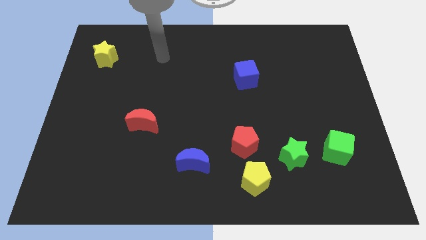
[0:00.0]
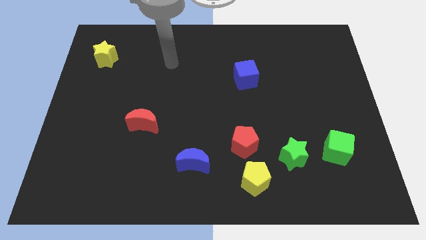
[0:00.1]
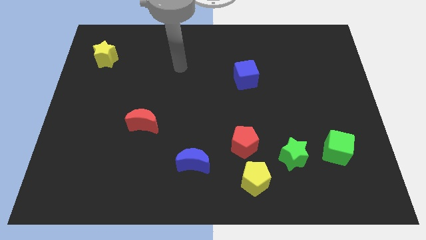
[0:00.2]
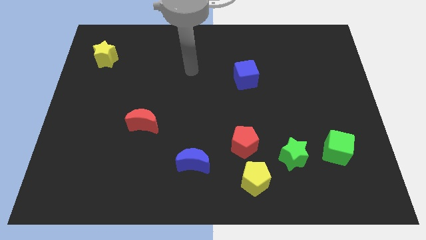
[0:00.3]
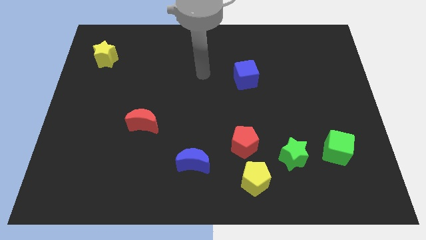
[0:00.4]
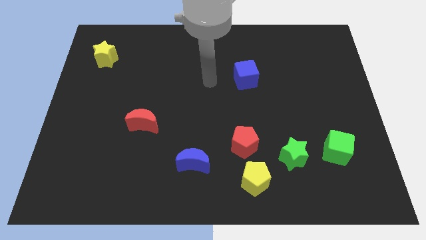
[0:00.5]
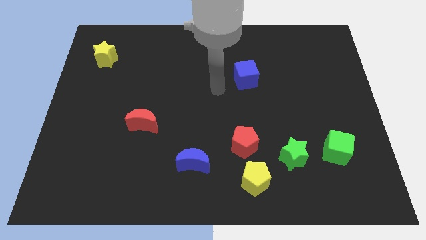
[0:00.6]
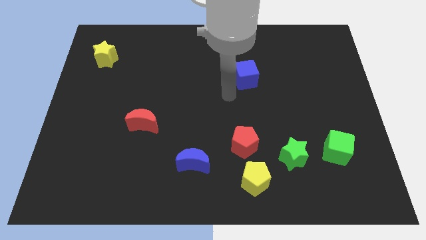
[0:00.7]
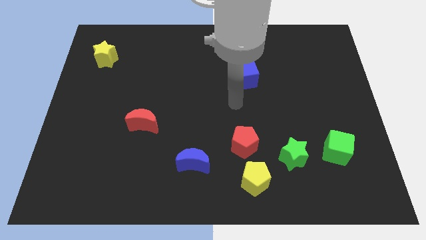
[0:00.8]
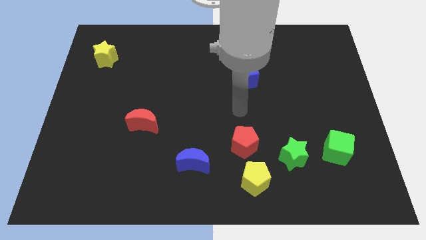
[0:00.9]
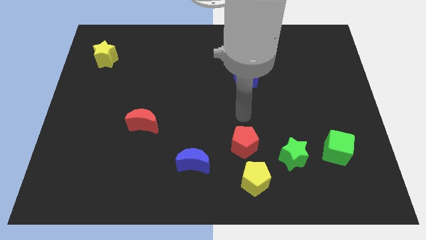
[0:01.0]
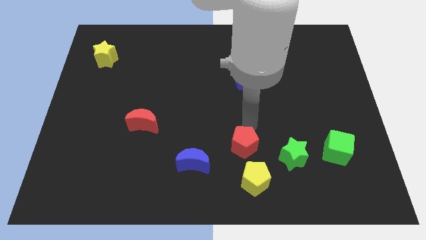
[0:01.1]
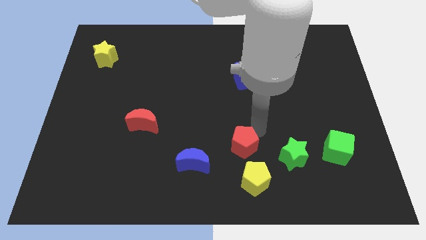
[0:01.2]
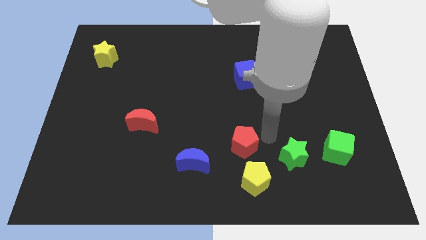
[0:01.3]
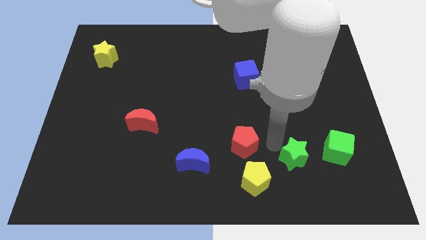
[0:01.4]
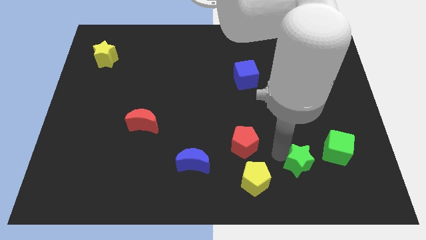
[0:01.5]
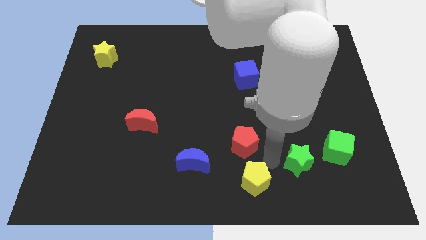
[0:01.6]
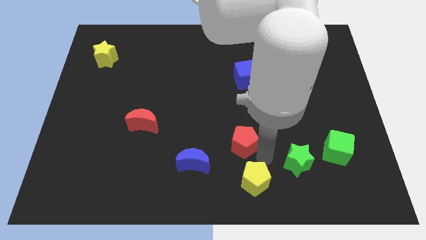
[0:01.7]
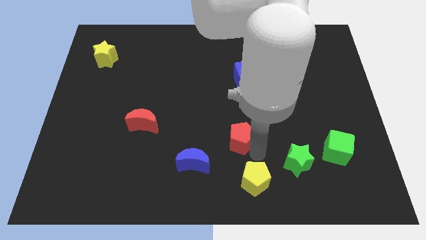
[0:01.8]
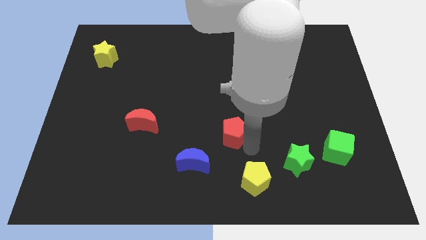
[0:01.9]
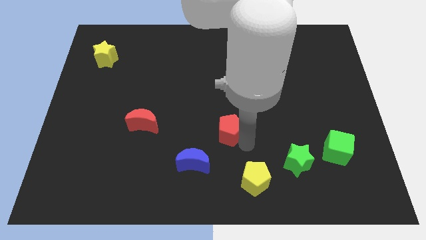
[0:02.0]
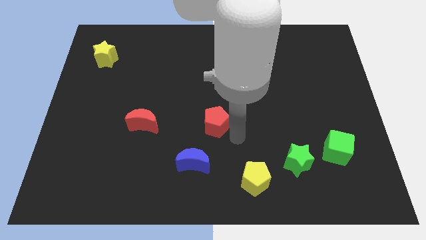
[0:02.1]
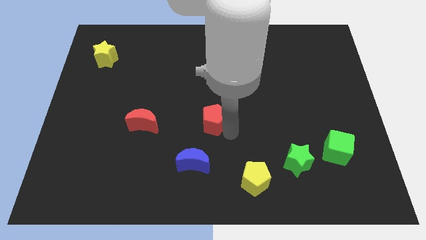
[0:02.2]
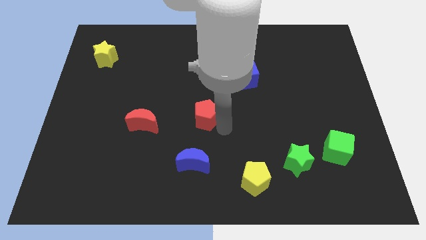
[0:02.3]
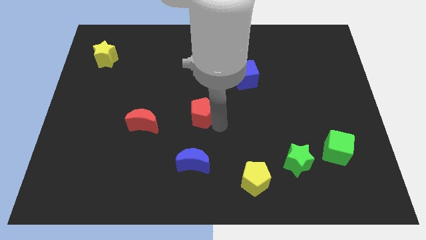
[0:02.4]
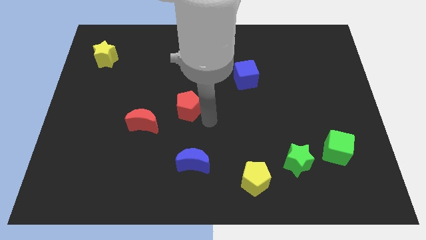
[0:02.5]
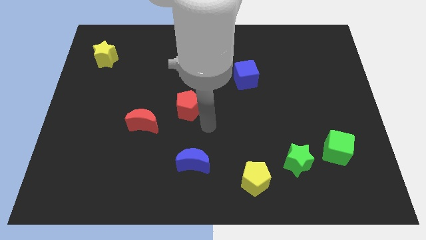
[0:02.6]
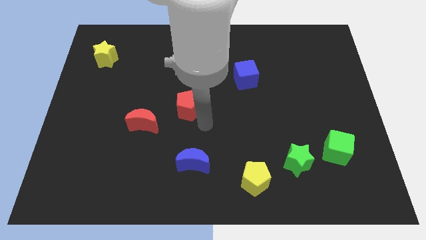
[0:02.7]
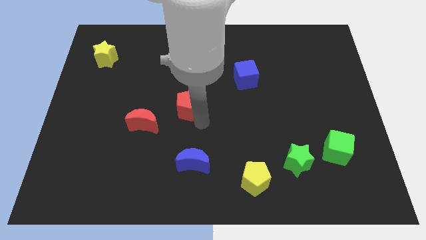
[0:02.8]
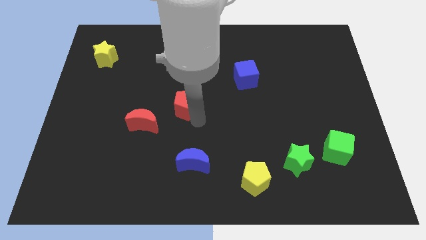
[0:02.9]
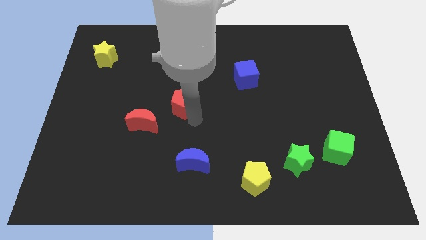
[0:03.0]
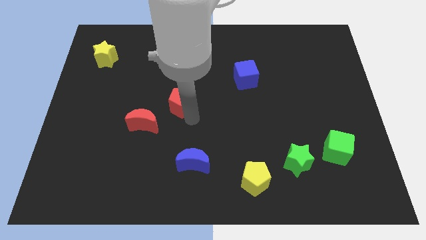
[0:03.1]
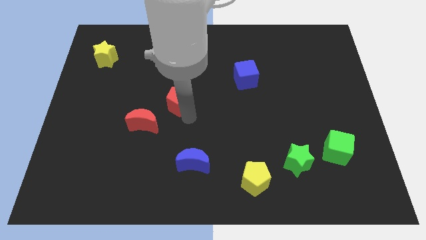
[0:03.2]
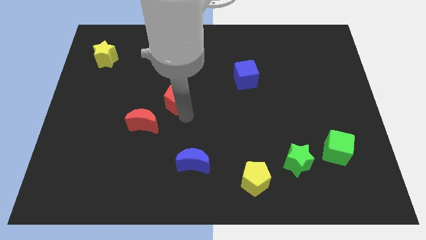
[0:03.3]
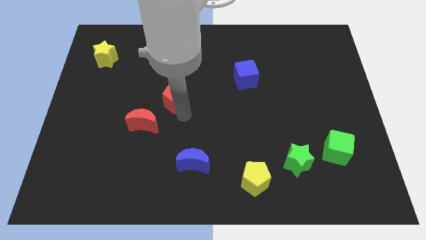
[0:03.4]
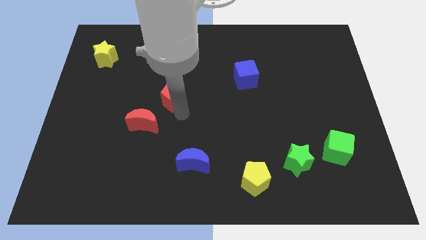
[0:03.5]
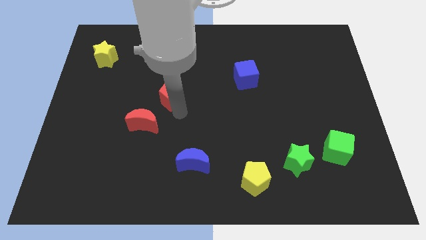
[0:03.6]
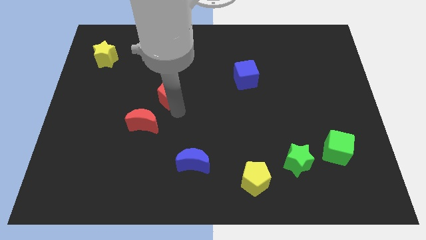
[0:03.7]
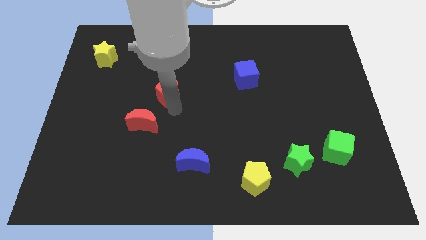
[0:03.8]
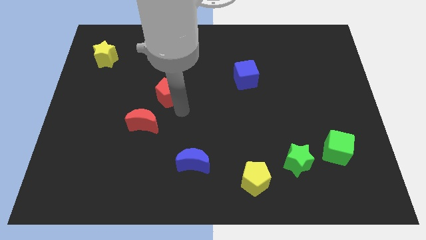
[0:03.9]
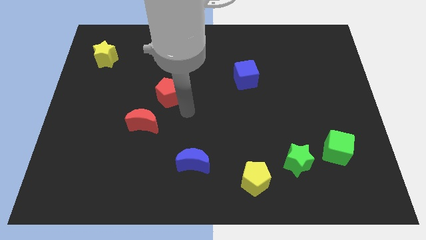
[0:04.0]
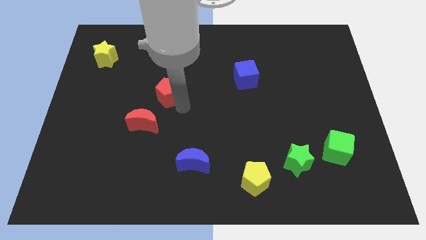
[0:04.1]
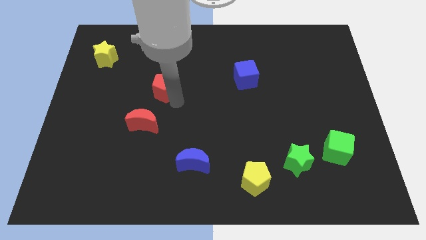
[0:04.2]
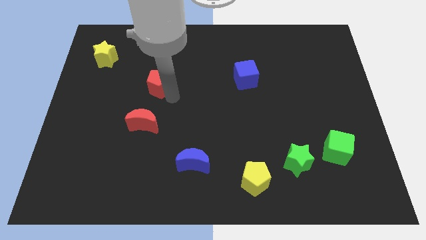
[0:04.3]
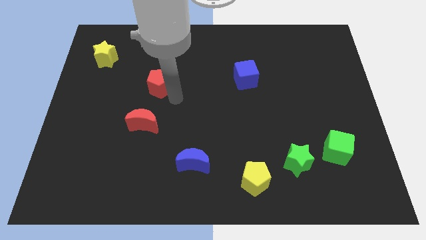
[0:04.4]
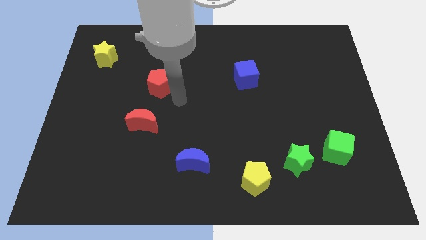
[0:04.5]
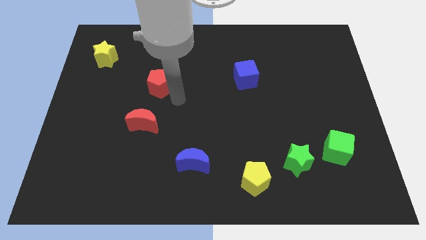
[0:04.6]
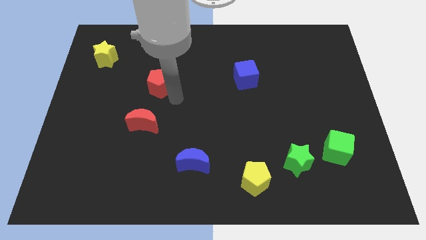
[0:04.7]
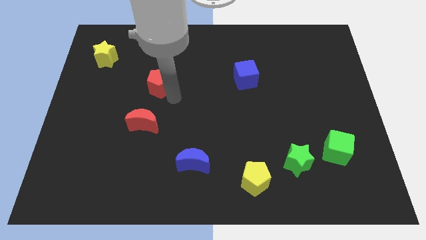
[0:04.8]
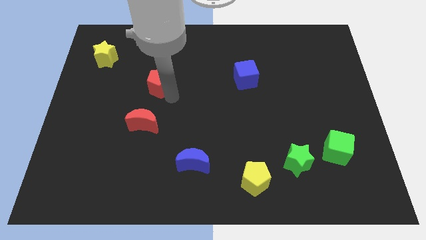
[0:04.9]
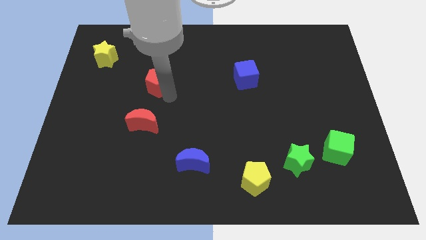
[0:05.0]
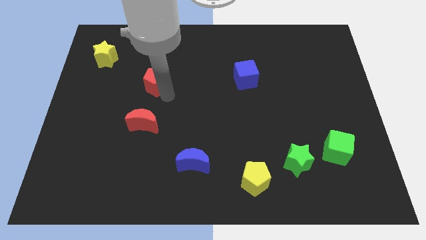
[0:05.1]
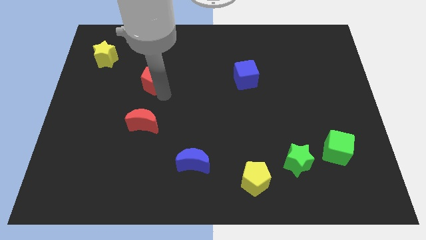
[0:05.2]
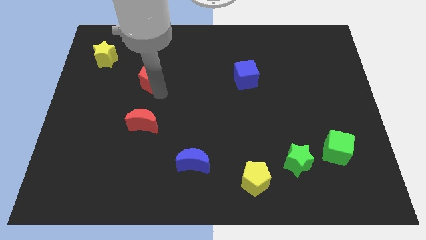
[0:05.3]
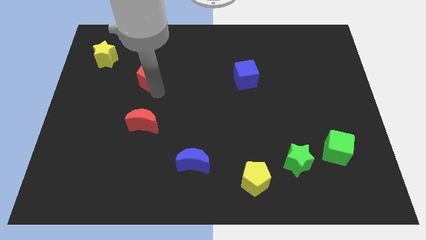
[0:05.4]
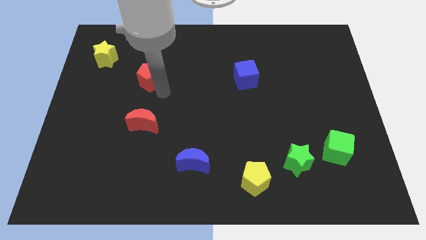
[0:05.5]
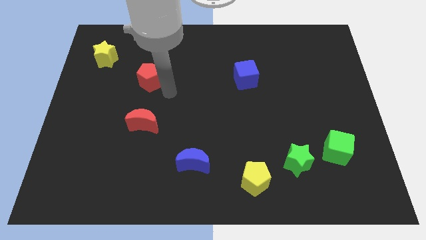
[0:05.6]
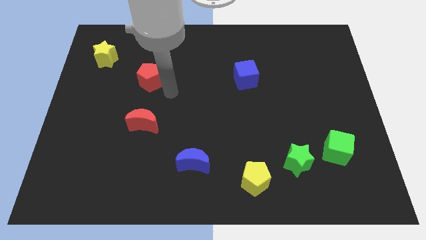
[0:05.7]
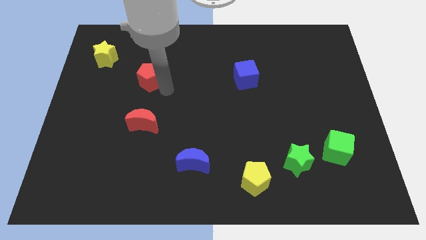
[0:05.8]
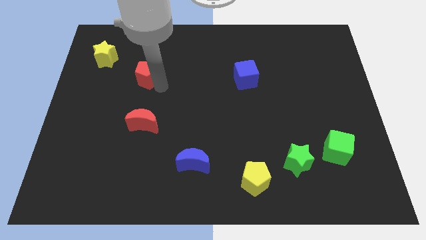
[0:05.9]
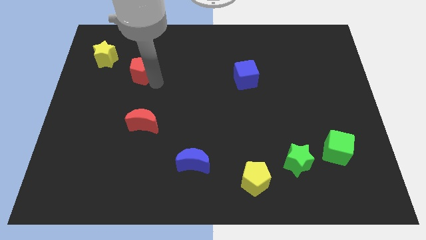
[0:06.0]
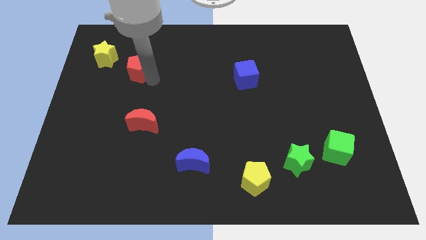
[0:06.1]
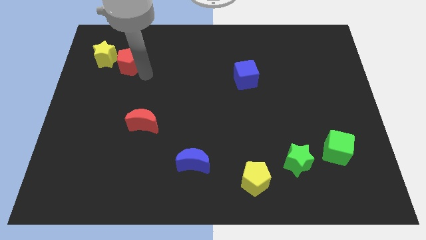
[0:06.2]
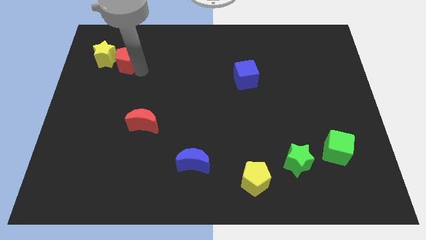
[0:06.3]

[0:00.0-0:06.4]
push the red pentagon towards the yellow star
